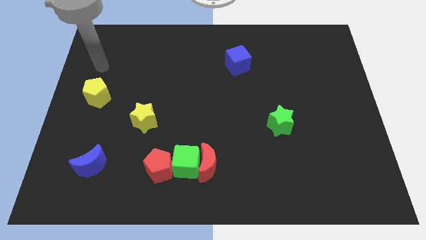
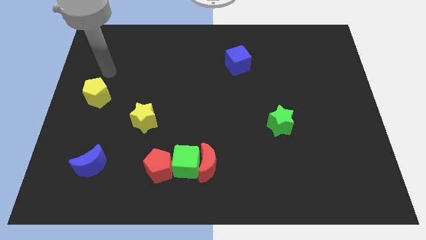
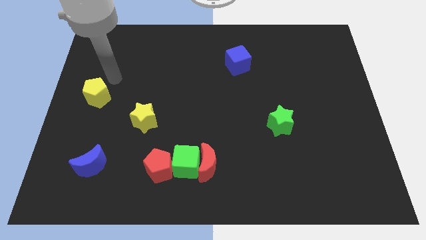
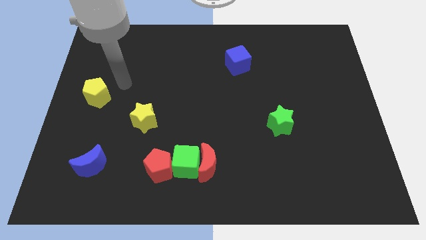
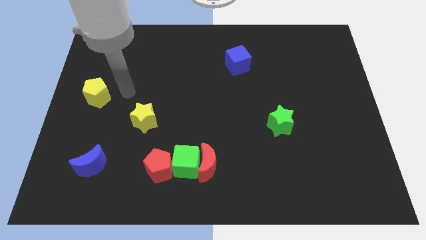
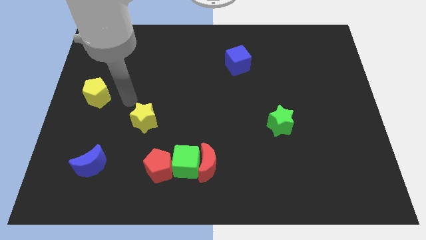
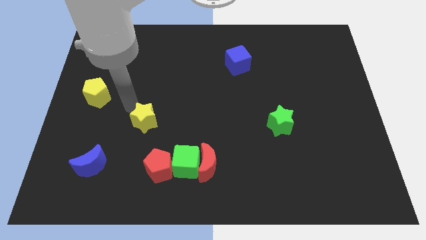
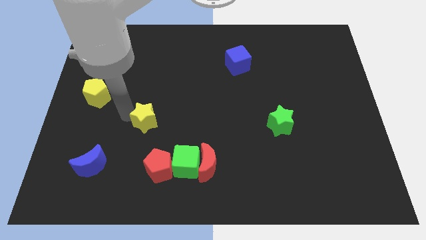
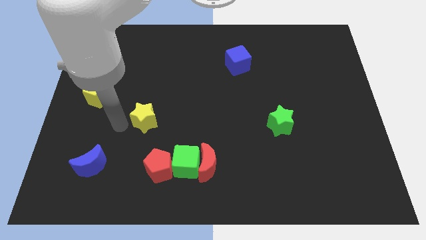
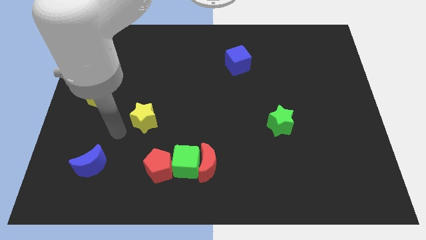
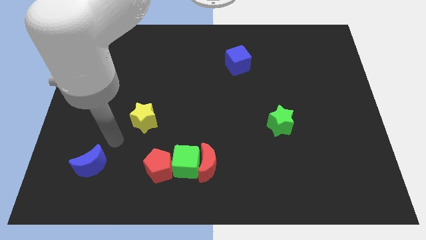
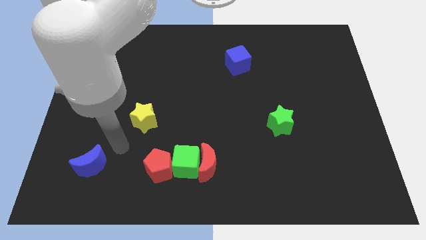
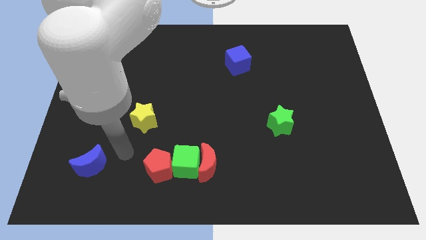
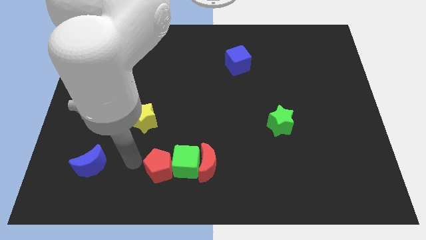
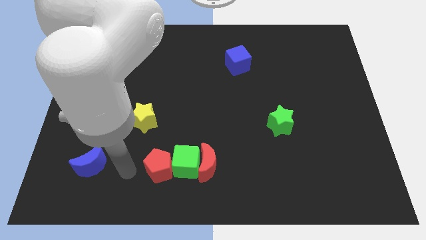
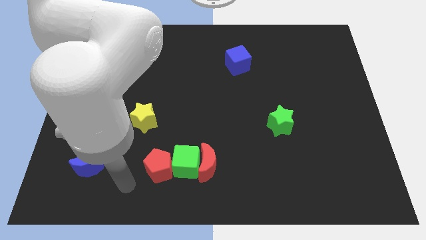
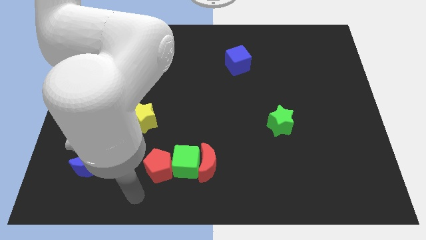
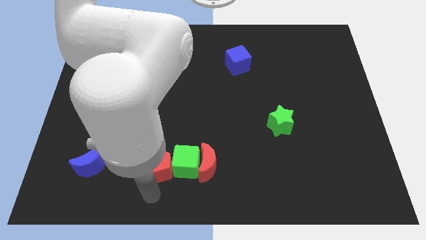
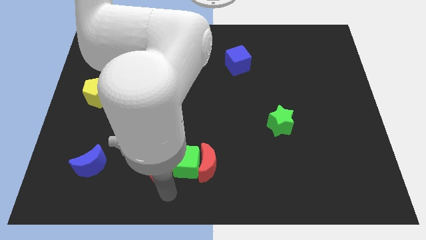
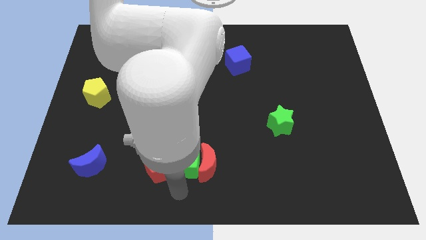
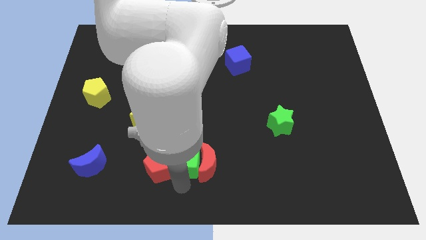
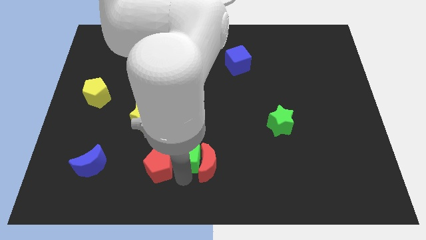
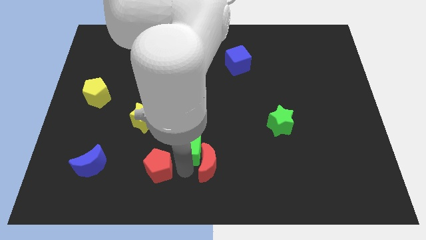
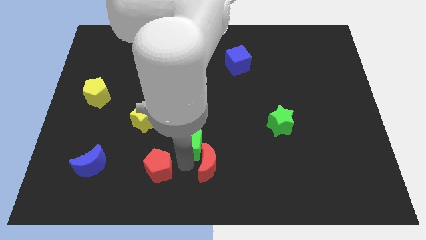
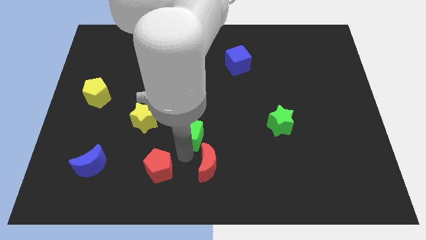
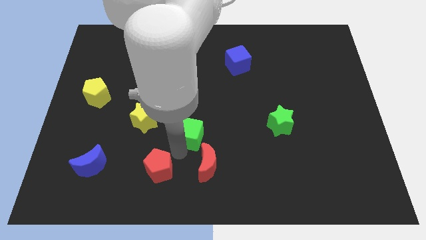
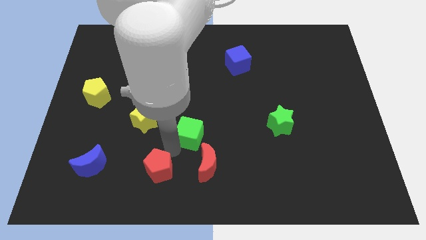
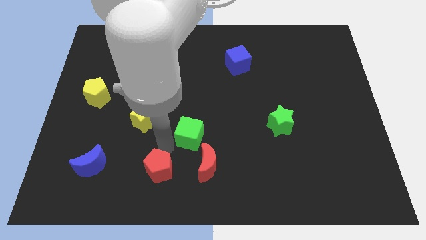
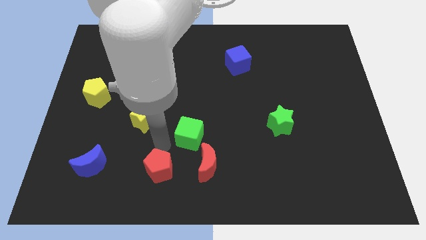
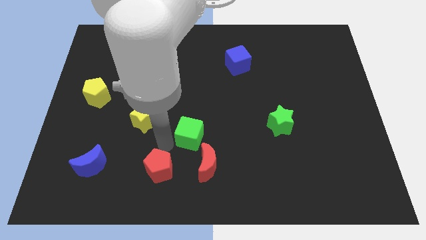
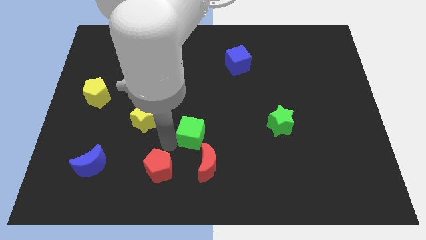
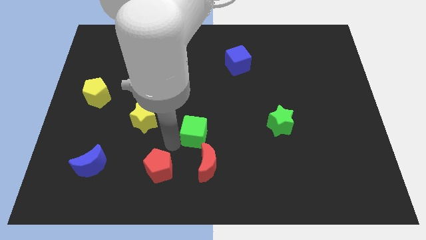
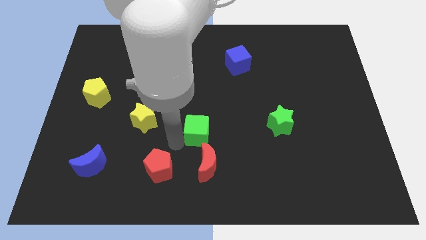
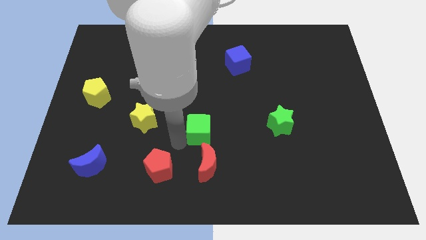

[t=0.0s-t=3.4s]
slide the green cube somewhat diagonally upwards and to the right

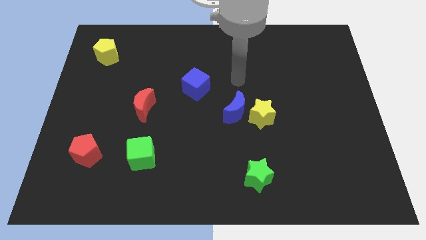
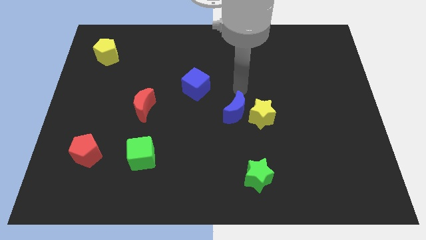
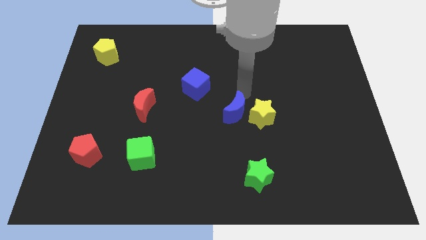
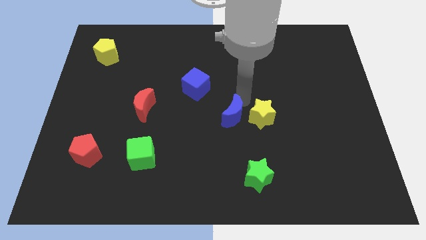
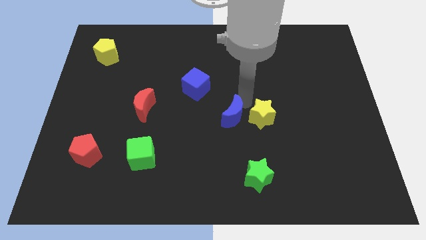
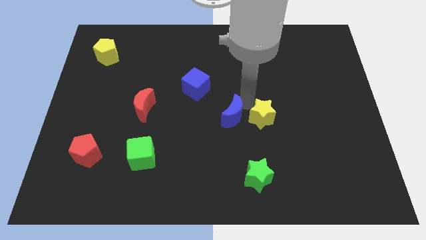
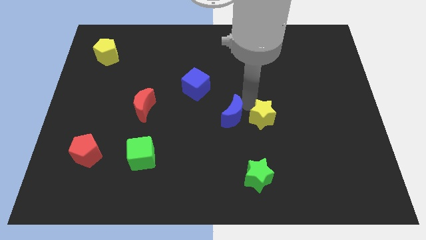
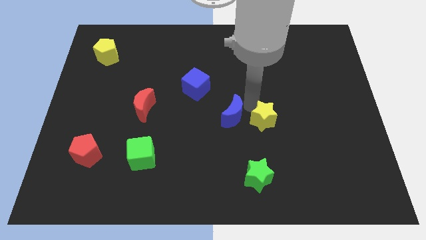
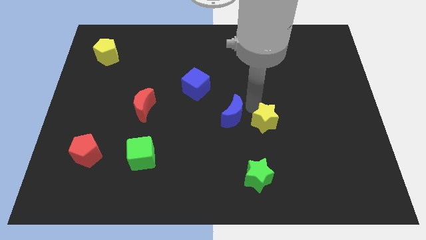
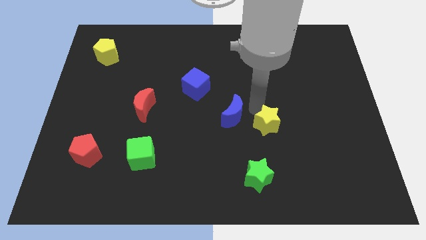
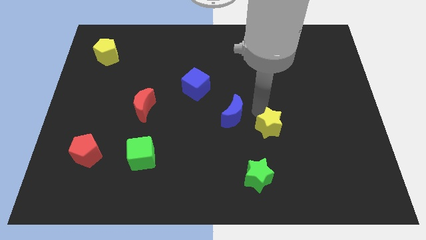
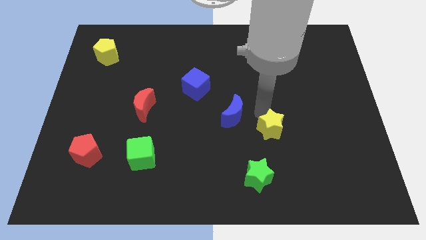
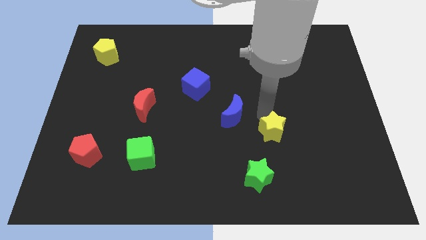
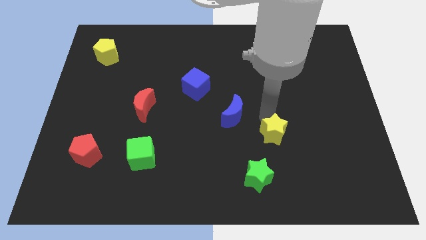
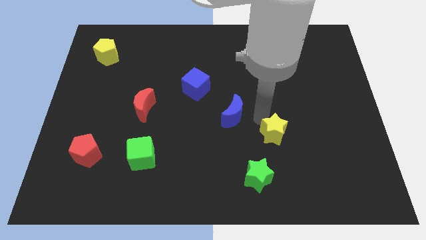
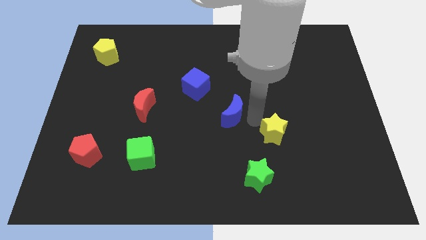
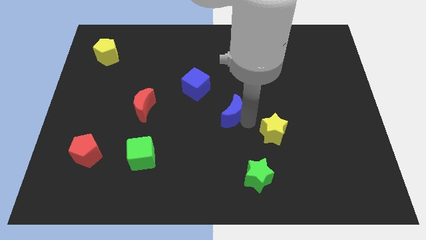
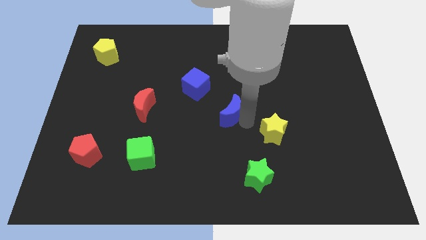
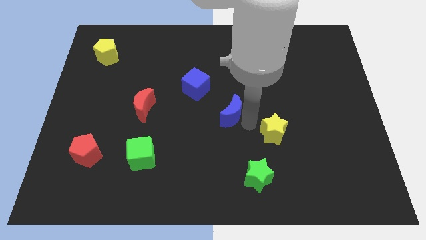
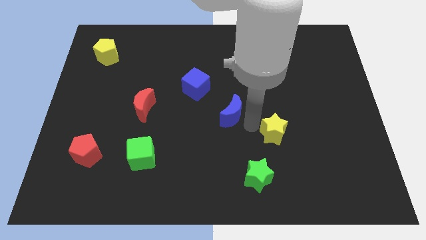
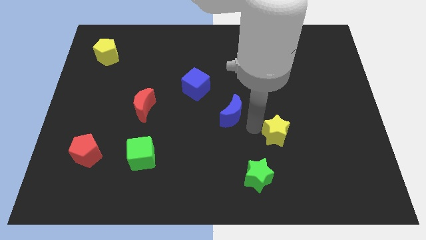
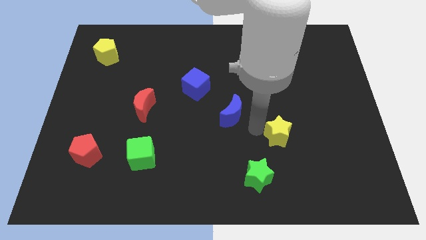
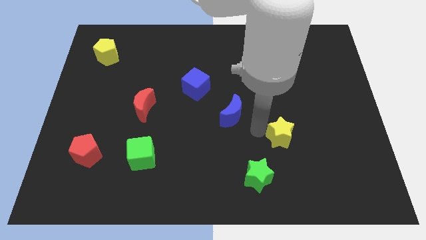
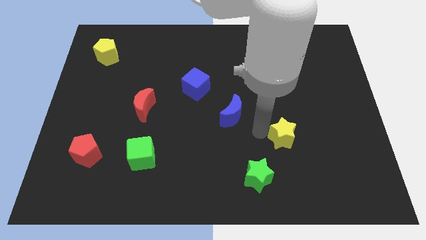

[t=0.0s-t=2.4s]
push the yellow star downwards and then to the right somewhat

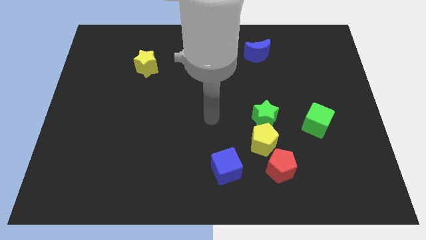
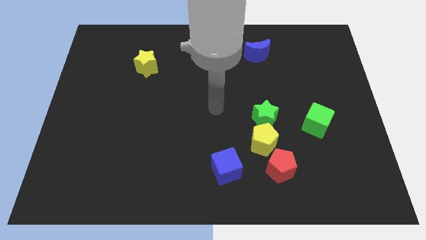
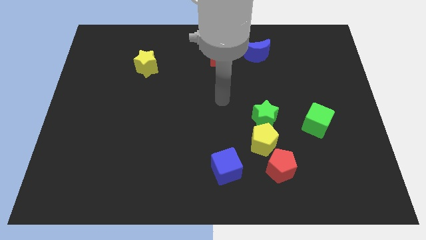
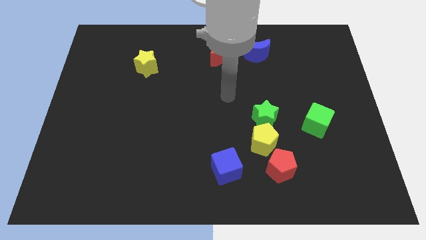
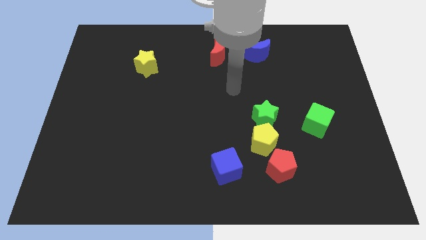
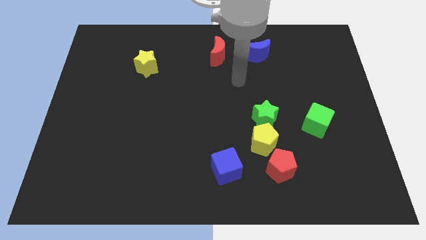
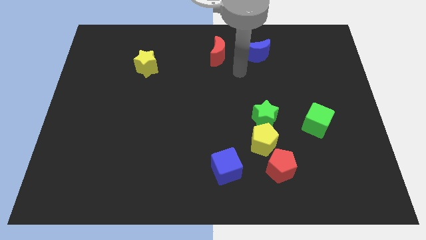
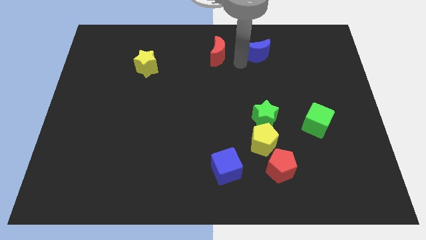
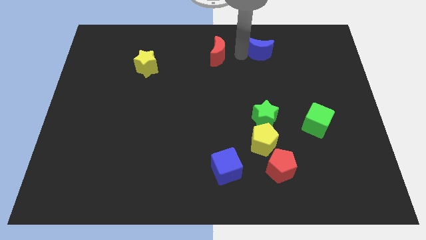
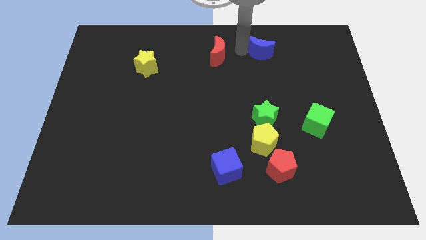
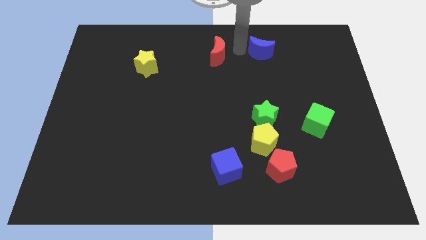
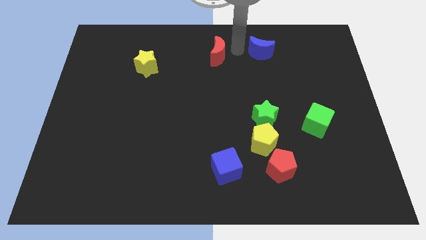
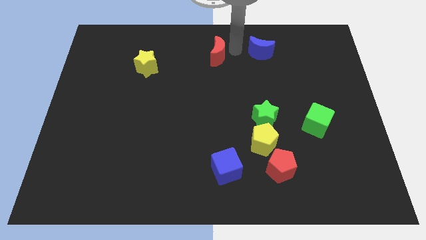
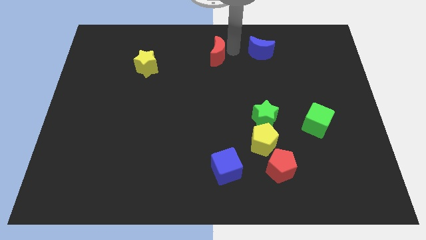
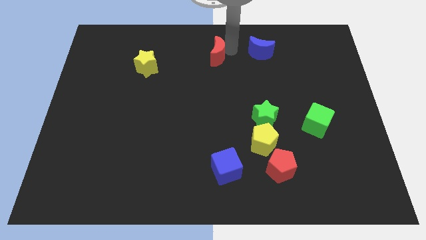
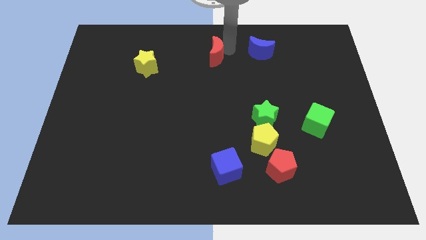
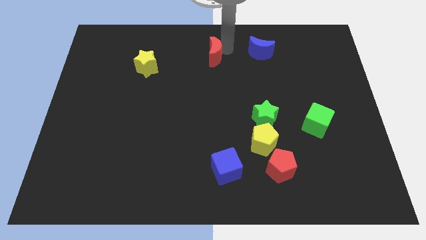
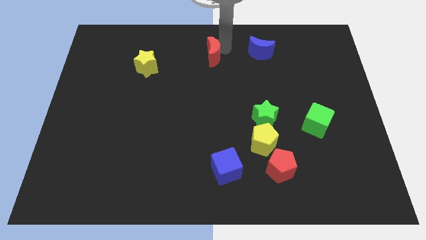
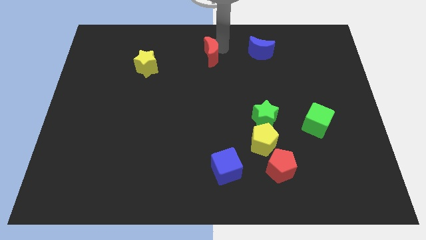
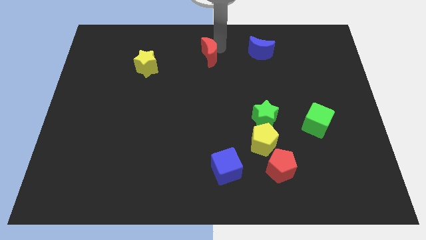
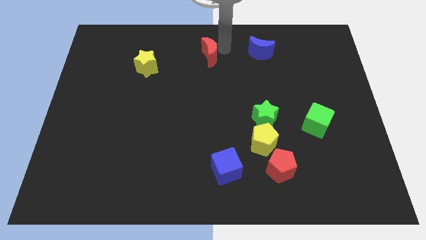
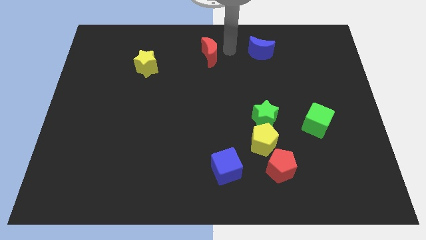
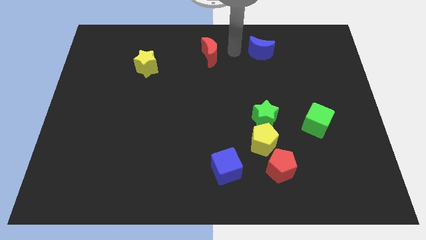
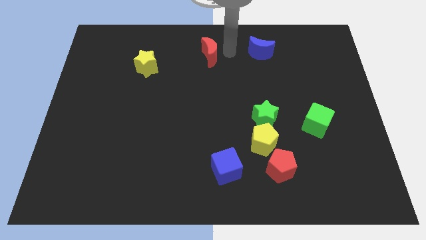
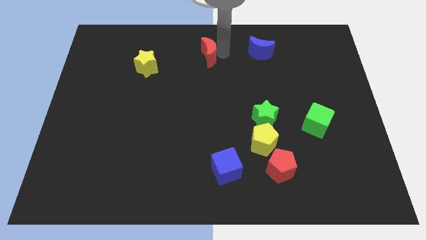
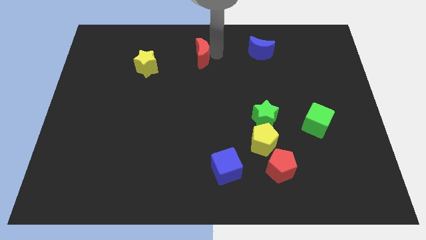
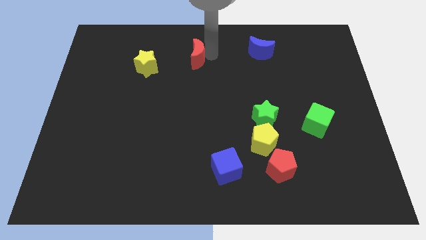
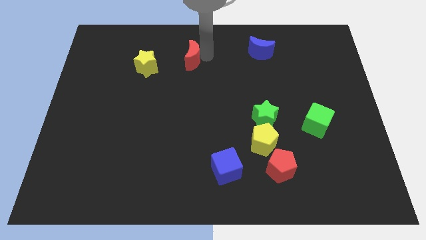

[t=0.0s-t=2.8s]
move the red moon left a bit
